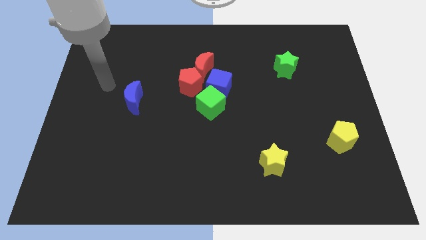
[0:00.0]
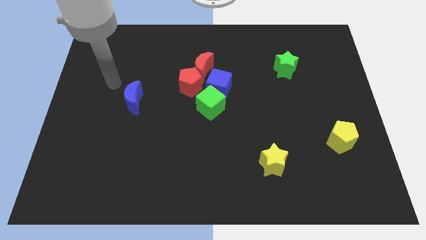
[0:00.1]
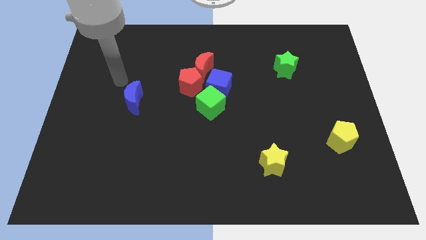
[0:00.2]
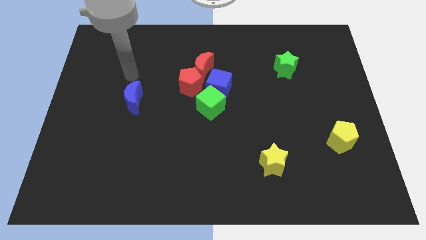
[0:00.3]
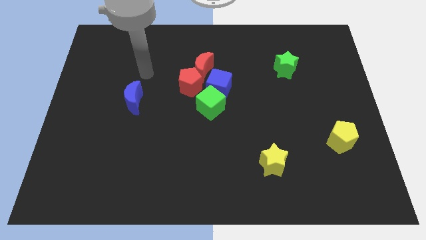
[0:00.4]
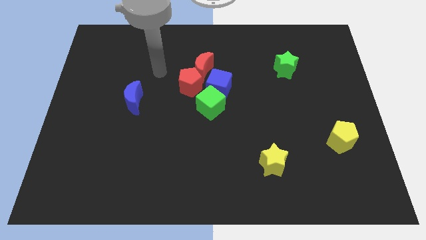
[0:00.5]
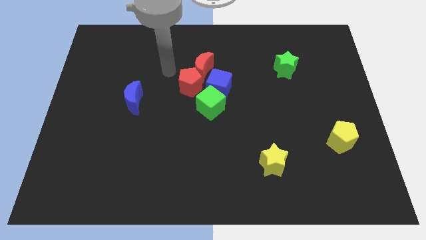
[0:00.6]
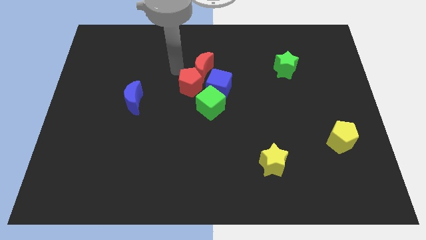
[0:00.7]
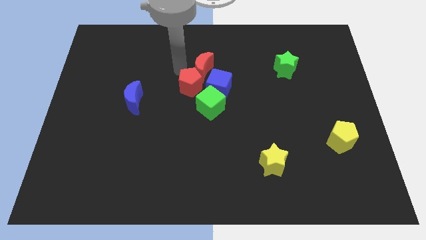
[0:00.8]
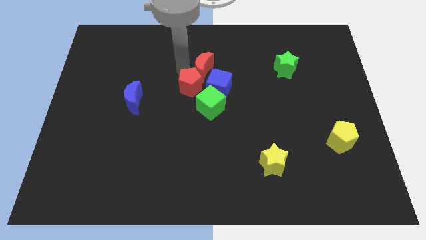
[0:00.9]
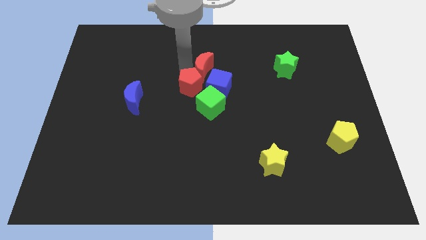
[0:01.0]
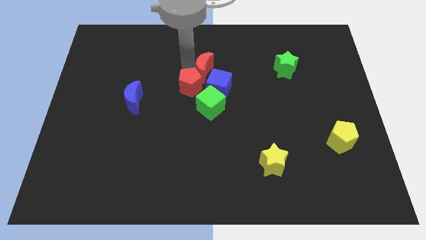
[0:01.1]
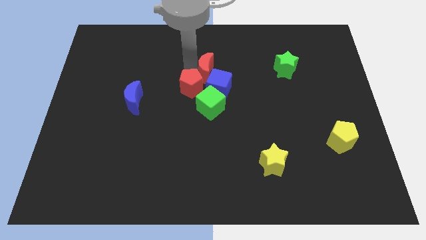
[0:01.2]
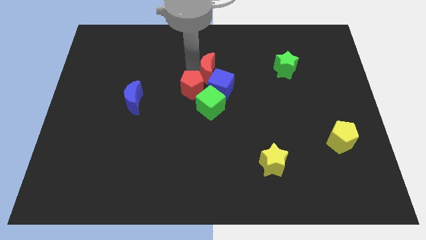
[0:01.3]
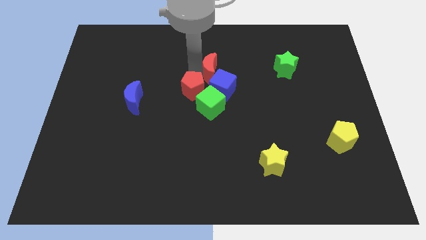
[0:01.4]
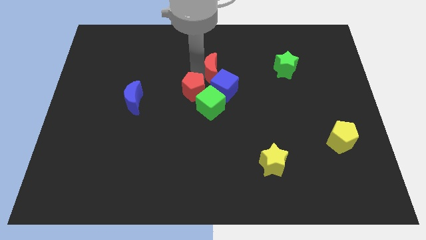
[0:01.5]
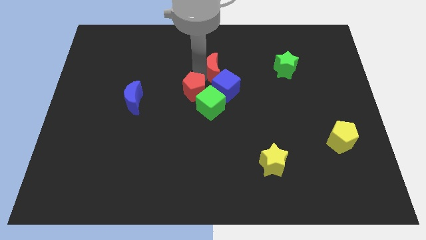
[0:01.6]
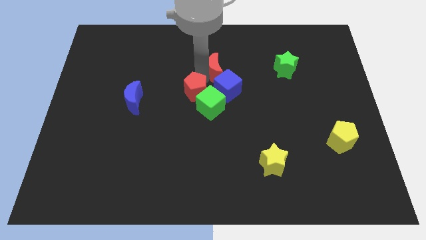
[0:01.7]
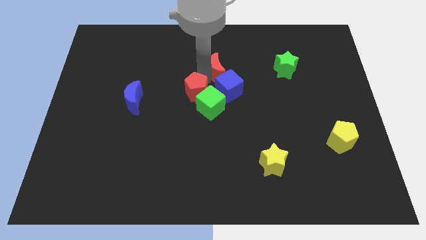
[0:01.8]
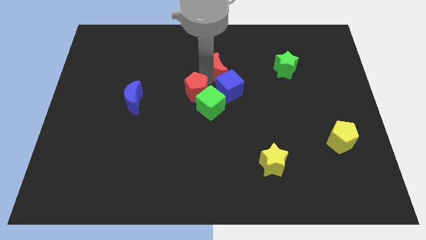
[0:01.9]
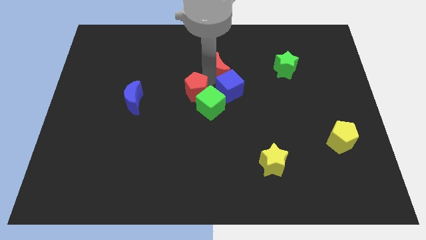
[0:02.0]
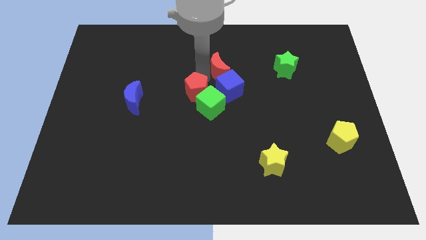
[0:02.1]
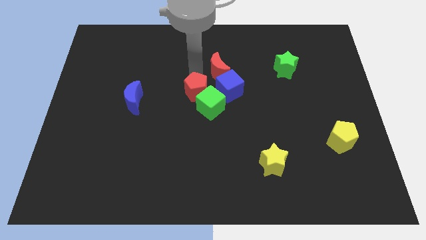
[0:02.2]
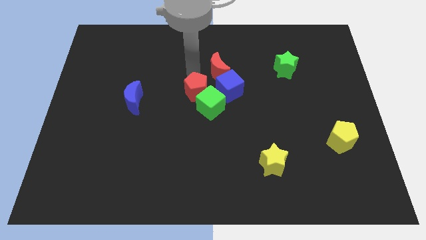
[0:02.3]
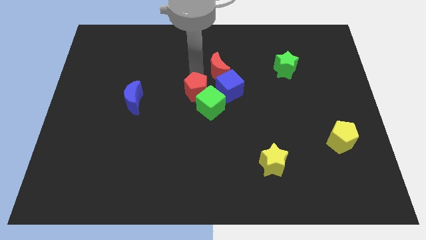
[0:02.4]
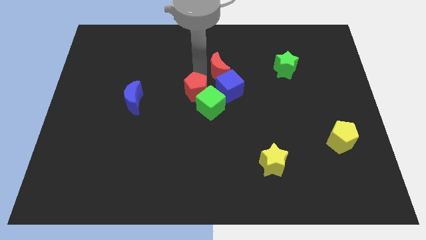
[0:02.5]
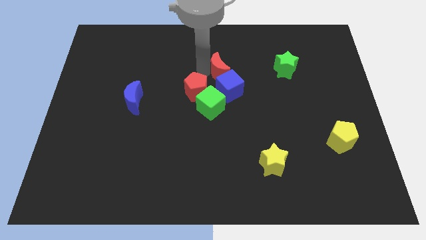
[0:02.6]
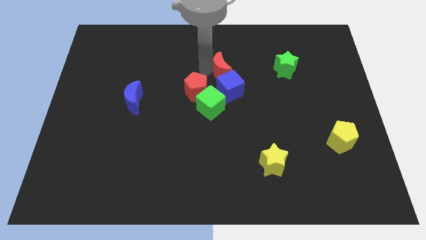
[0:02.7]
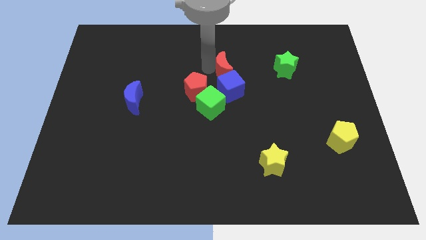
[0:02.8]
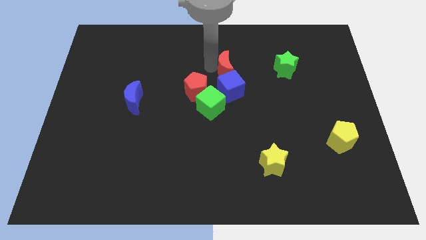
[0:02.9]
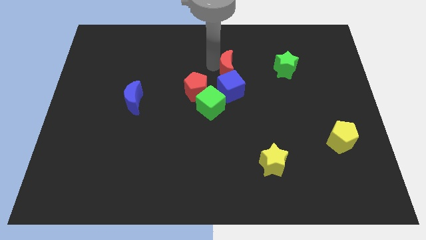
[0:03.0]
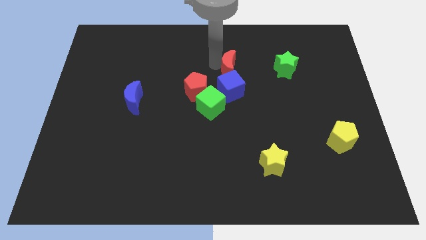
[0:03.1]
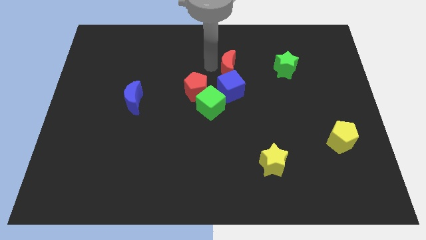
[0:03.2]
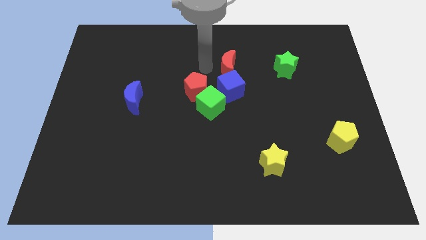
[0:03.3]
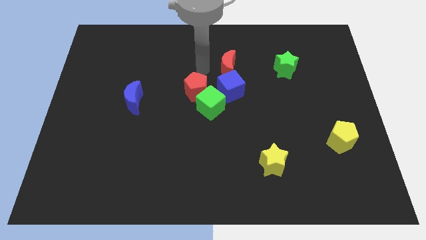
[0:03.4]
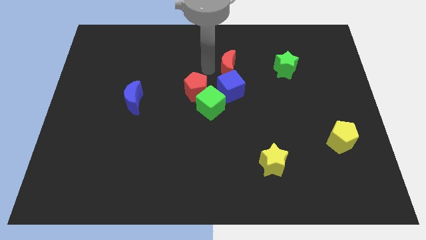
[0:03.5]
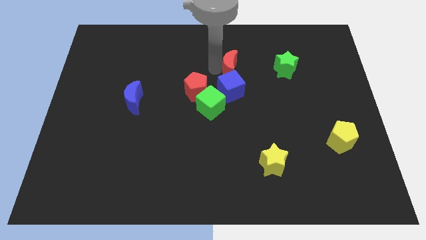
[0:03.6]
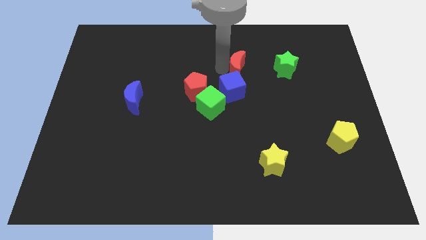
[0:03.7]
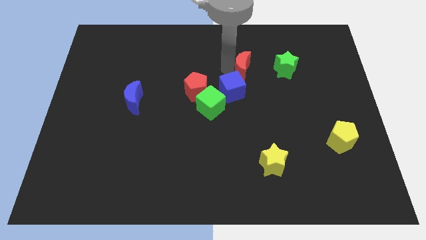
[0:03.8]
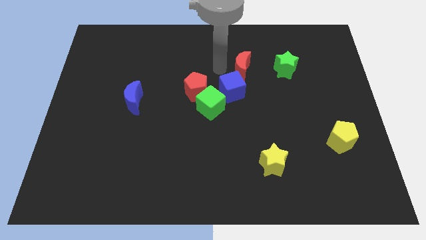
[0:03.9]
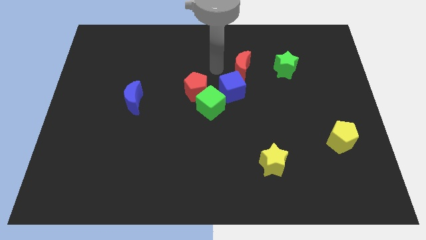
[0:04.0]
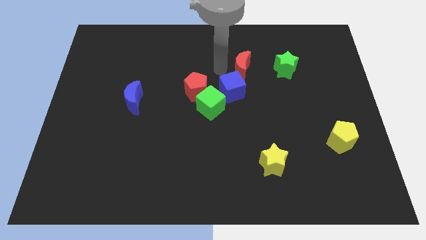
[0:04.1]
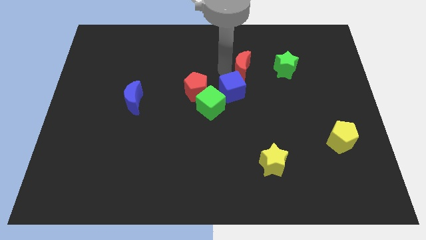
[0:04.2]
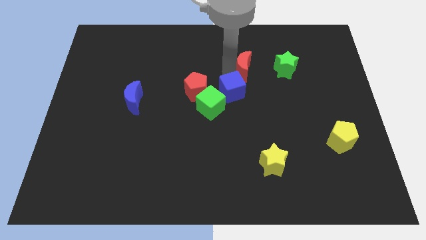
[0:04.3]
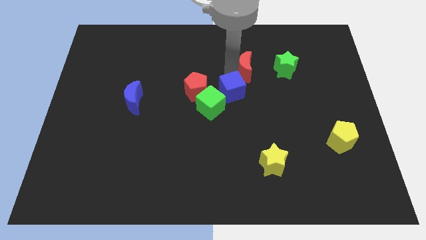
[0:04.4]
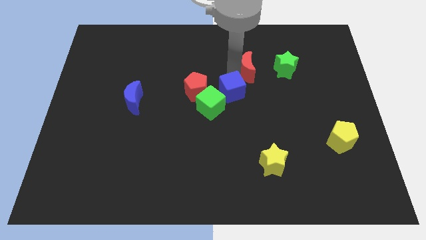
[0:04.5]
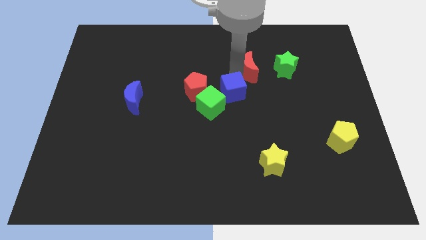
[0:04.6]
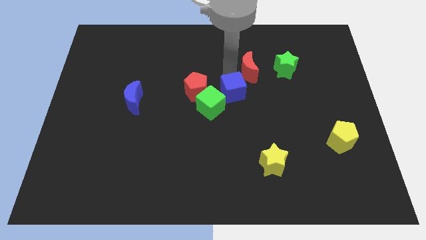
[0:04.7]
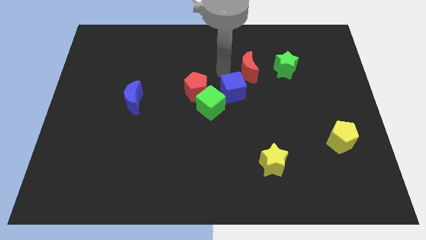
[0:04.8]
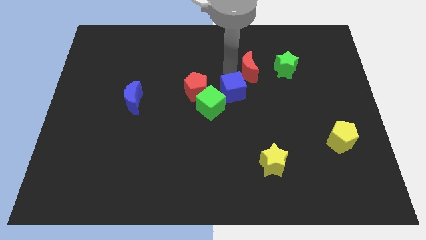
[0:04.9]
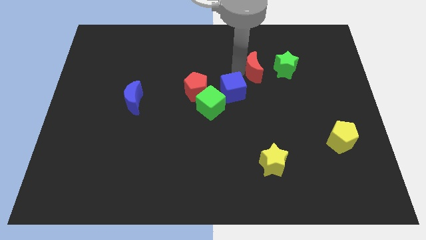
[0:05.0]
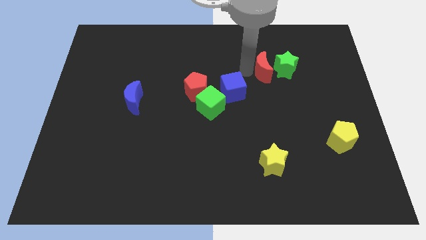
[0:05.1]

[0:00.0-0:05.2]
move the red moon to the green star

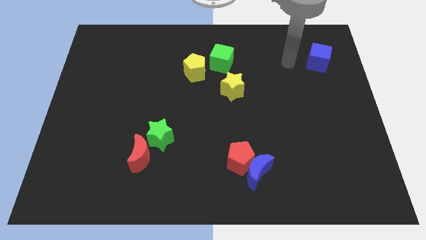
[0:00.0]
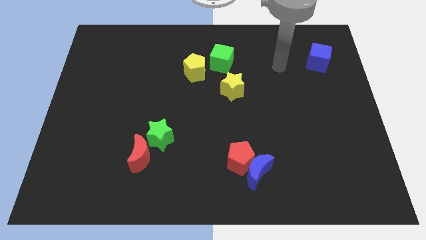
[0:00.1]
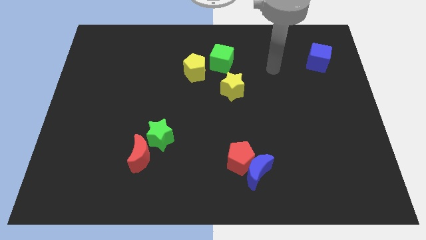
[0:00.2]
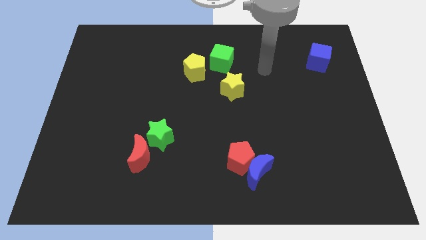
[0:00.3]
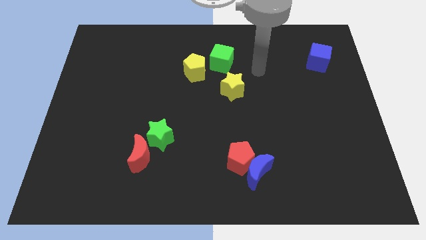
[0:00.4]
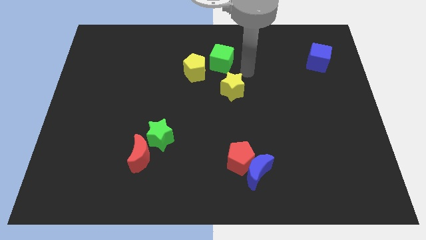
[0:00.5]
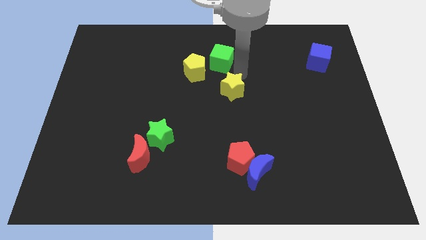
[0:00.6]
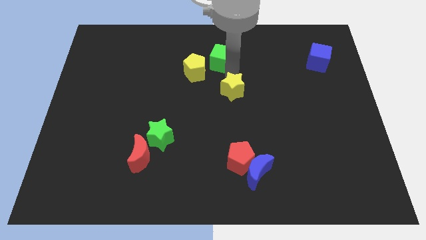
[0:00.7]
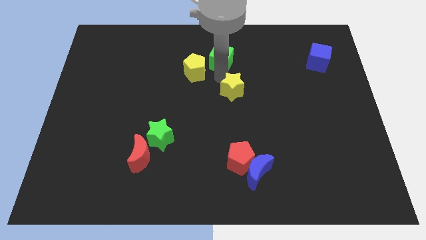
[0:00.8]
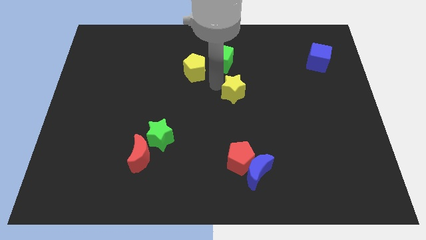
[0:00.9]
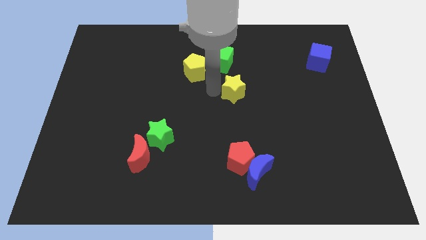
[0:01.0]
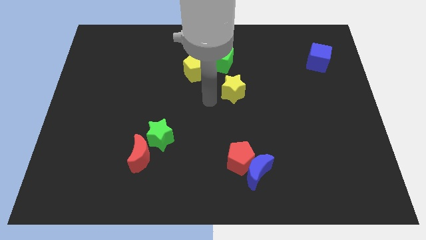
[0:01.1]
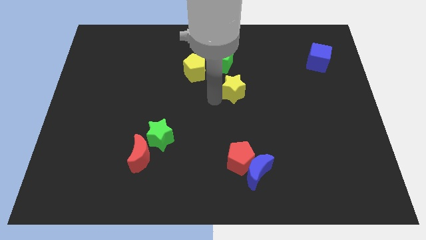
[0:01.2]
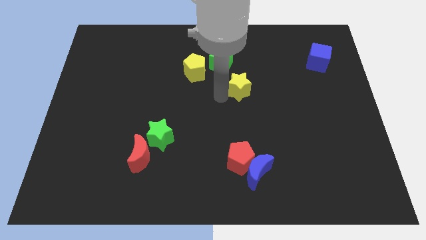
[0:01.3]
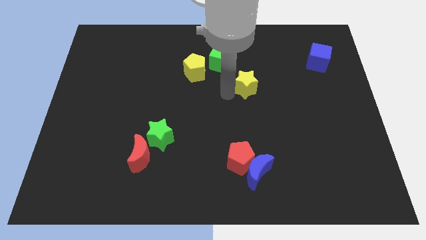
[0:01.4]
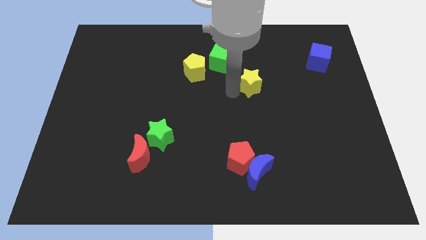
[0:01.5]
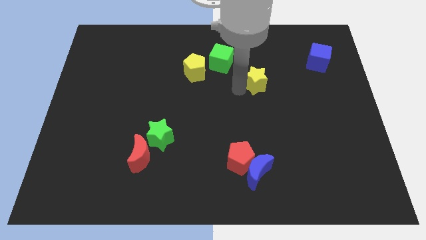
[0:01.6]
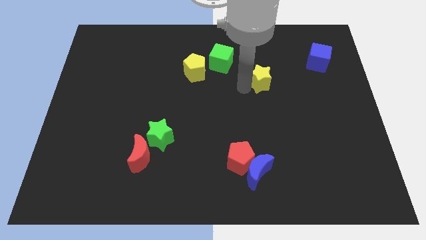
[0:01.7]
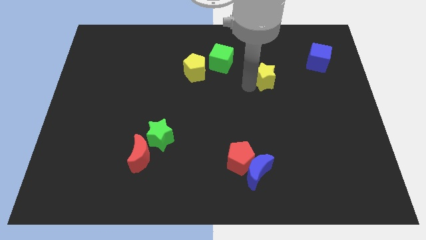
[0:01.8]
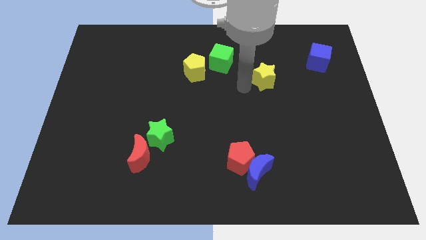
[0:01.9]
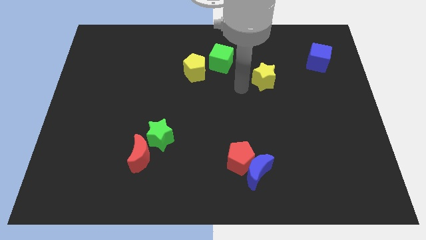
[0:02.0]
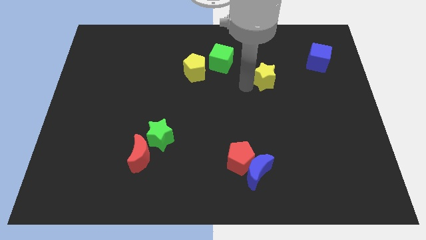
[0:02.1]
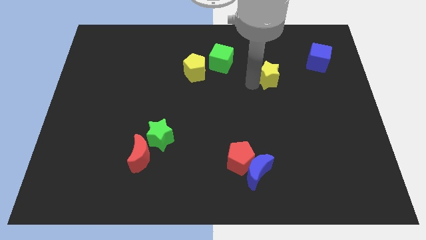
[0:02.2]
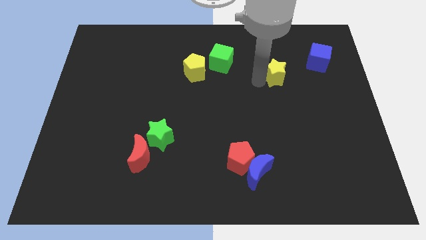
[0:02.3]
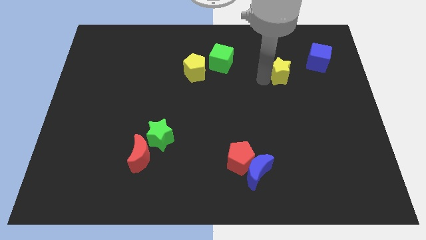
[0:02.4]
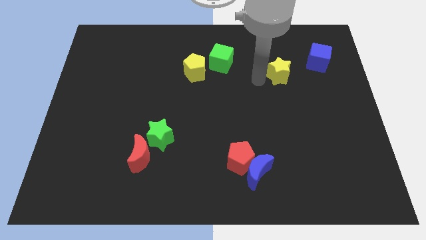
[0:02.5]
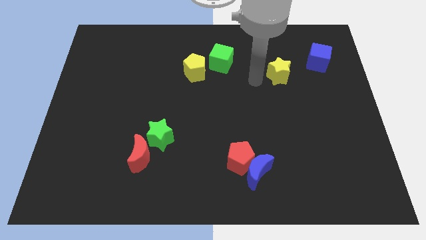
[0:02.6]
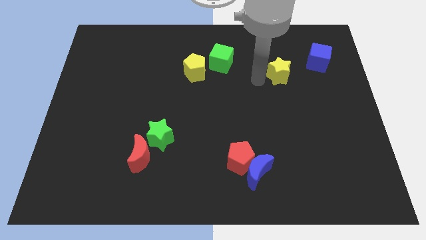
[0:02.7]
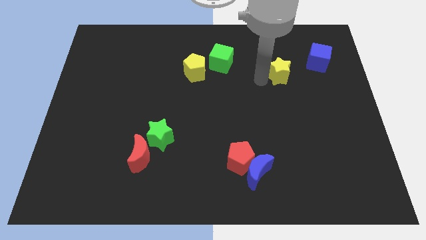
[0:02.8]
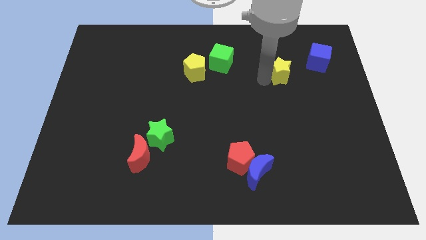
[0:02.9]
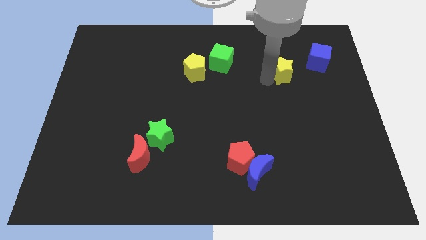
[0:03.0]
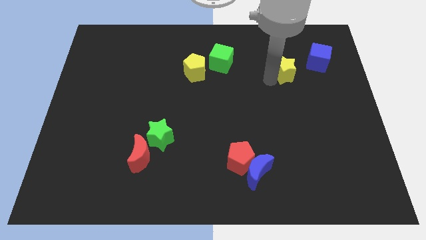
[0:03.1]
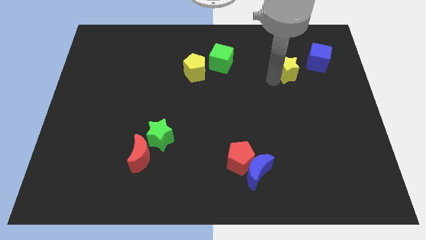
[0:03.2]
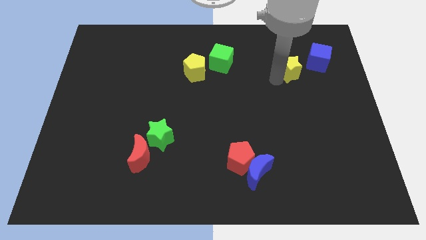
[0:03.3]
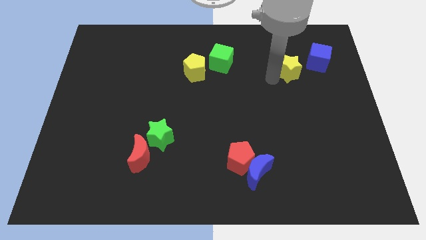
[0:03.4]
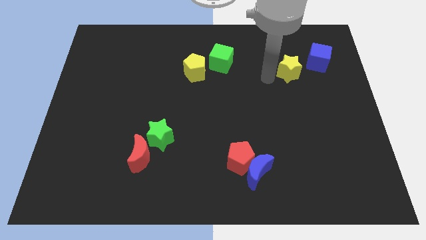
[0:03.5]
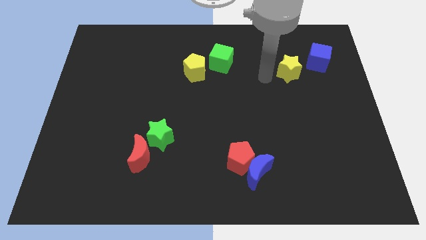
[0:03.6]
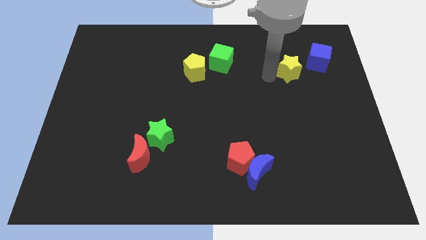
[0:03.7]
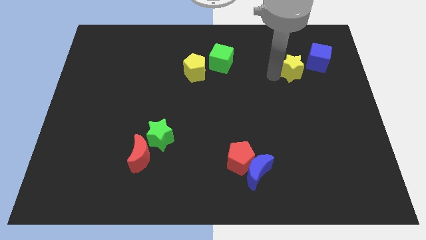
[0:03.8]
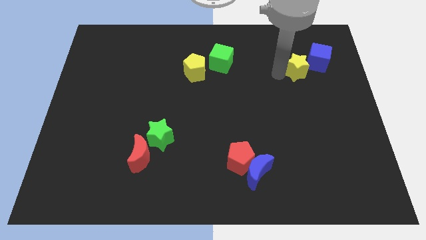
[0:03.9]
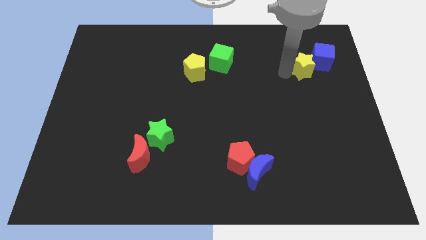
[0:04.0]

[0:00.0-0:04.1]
put the yellow star to the blue cube
